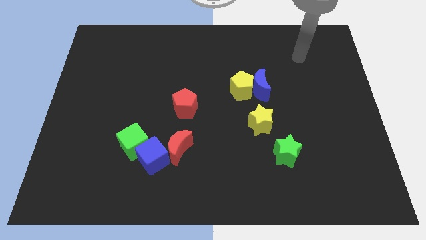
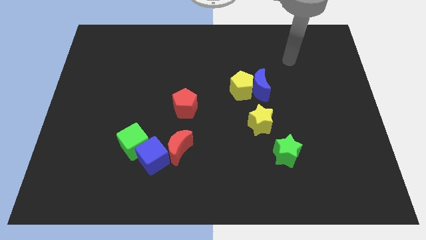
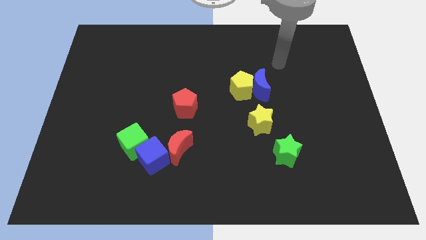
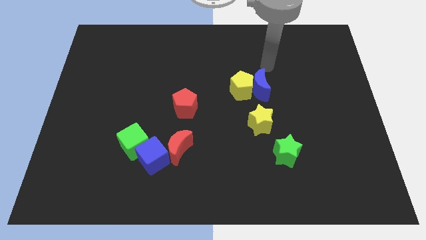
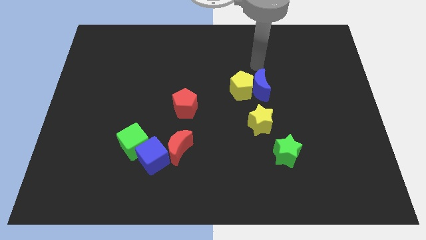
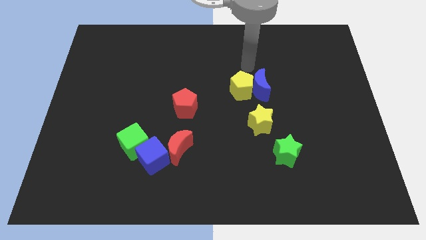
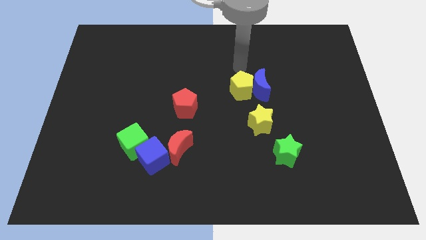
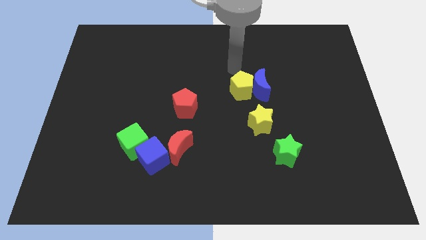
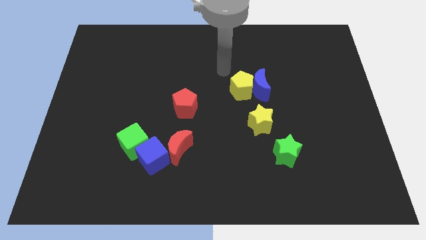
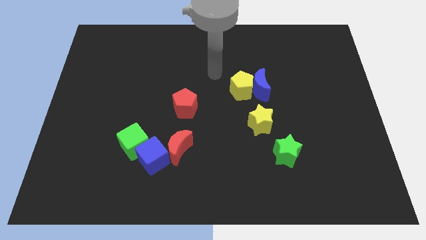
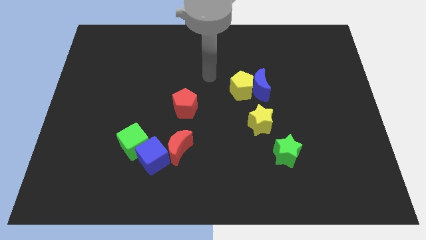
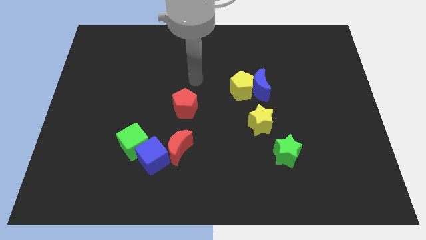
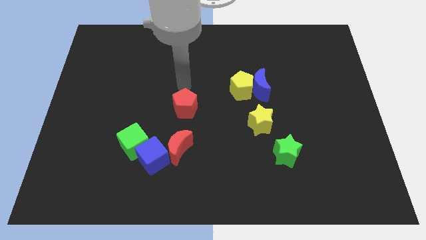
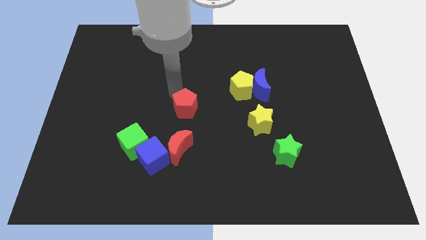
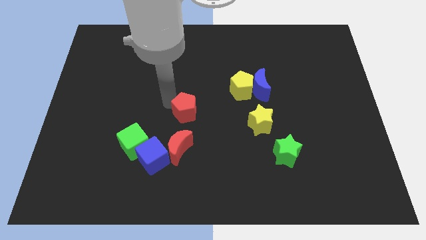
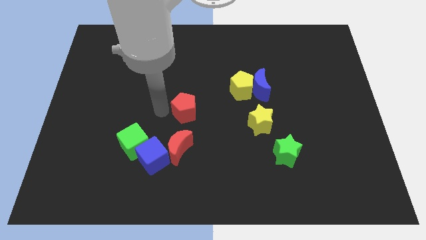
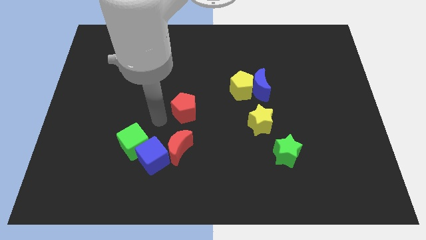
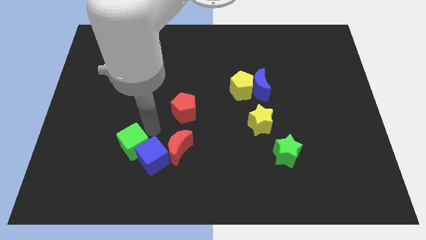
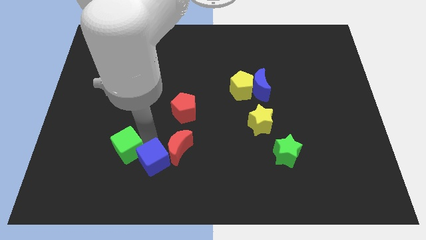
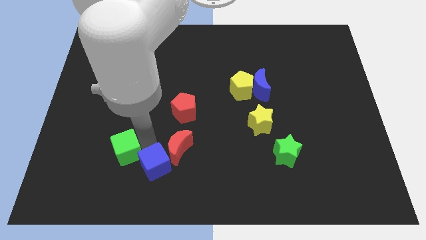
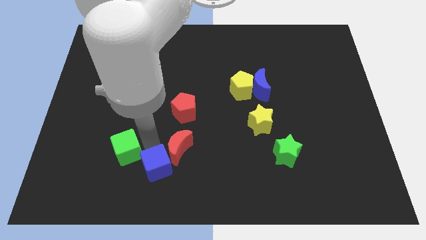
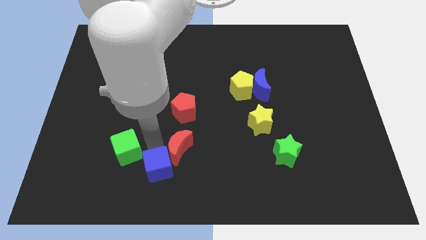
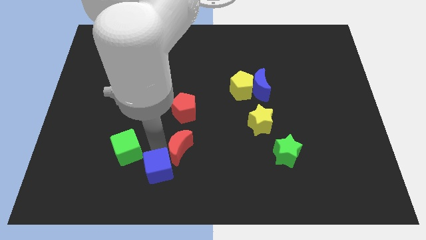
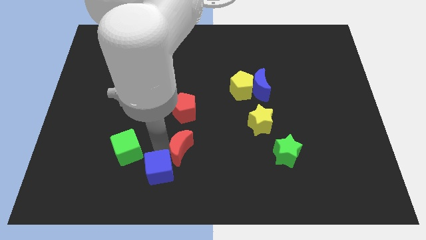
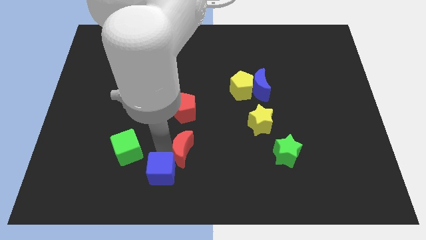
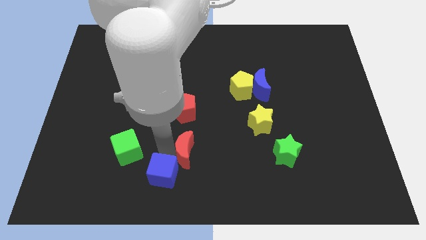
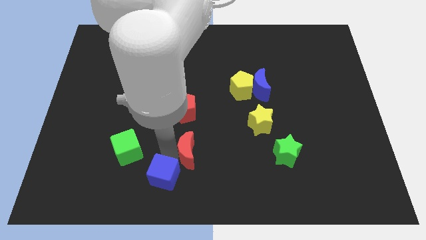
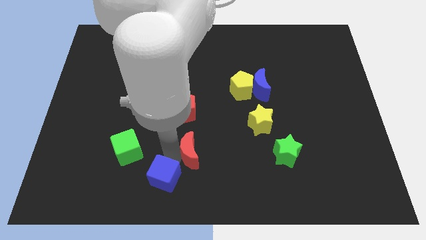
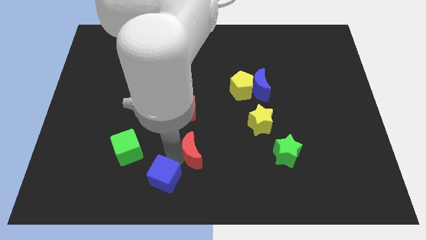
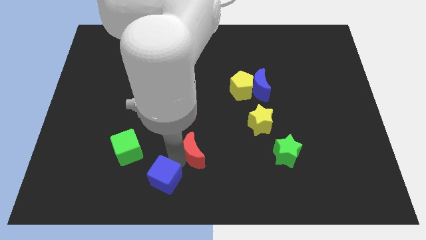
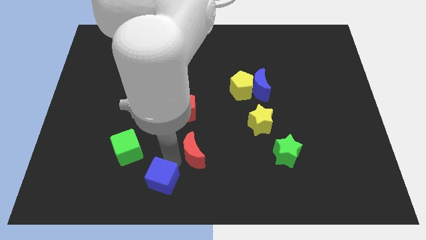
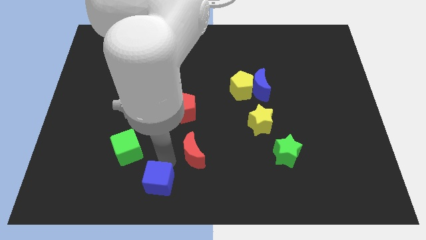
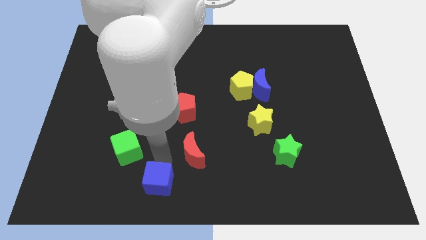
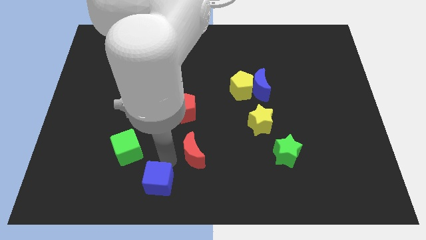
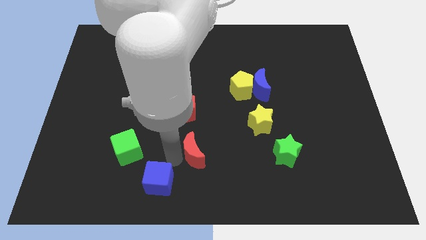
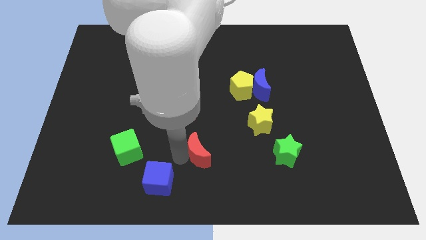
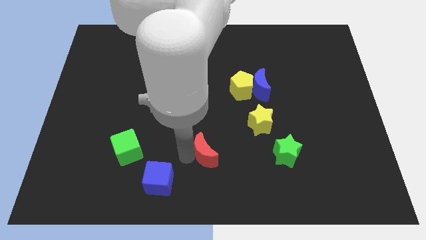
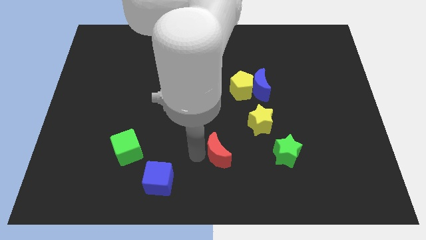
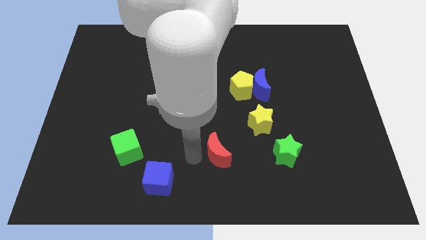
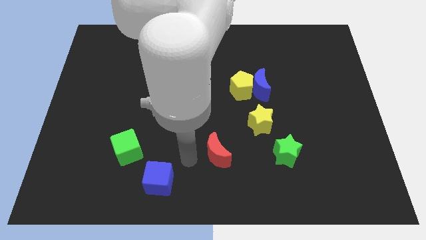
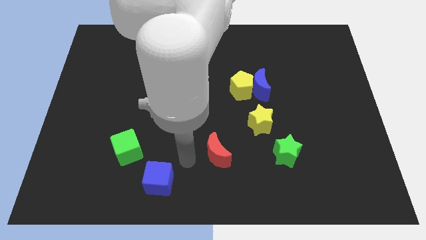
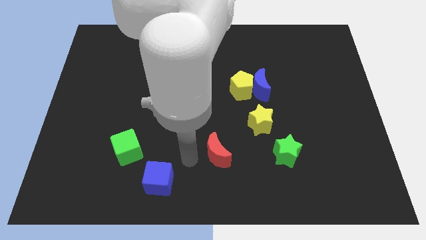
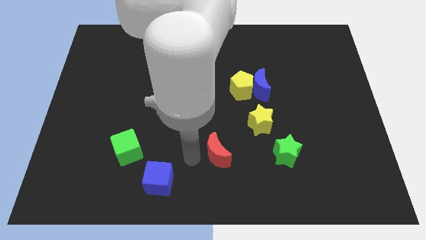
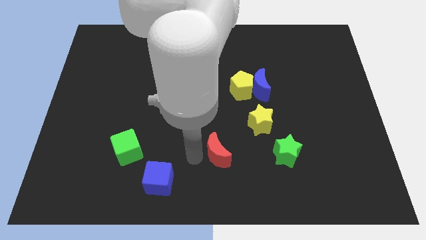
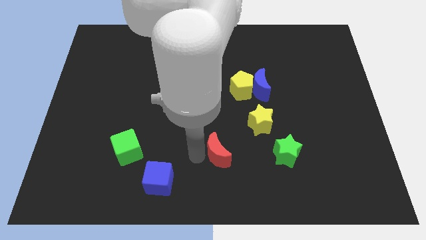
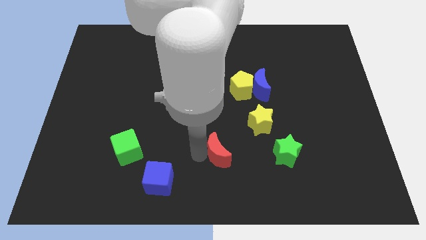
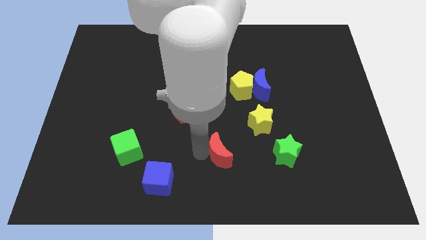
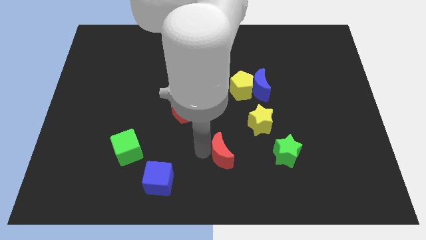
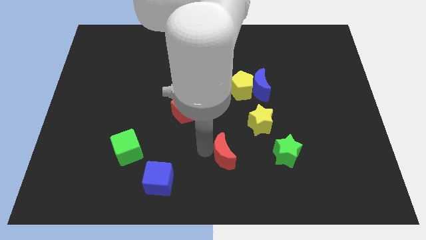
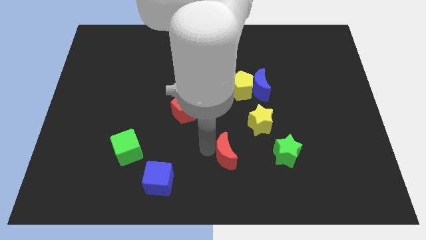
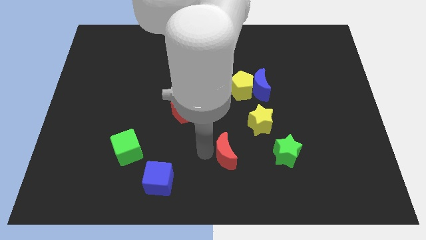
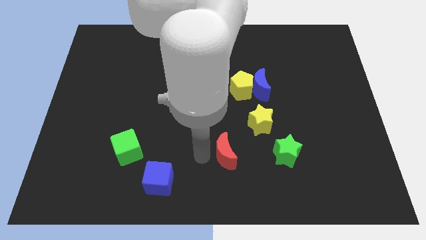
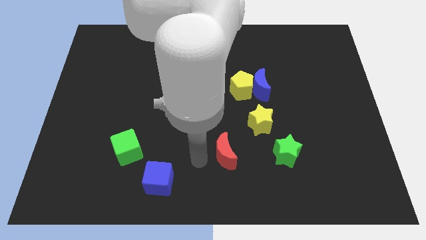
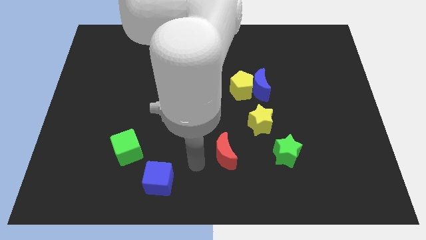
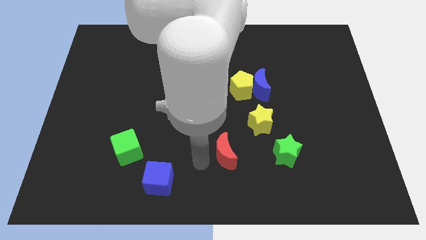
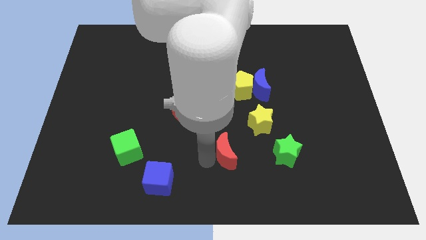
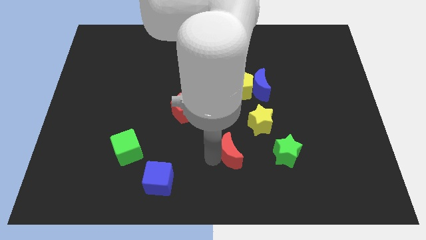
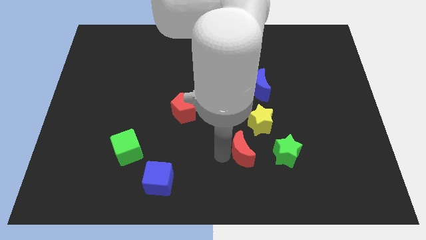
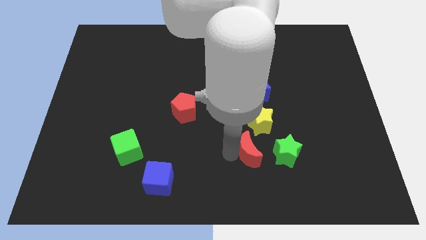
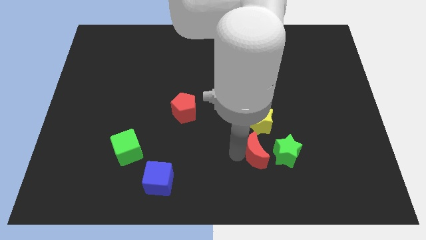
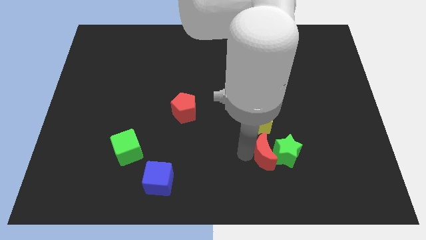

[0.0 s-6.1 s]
put the red moon towards the green star

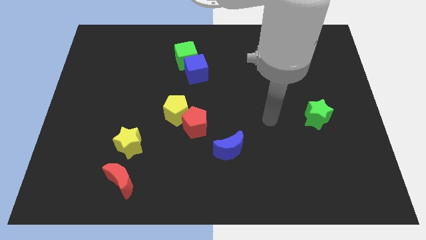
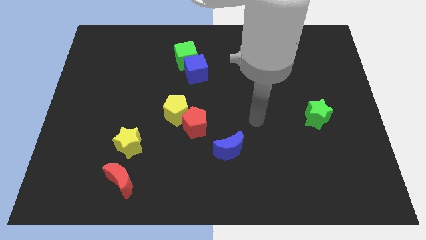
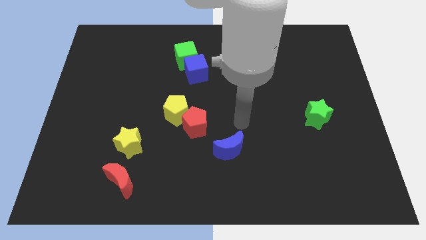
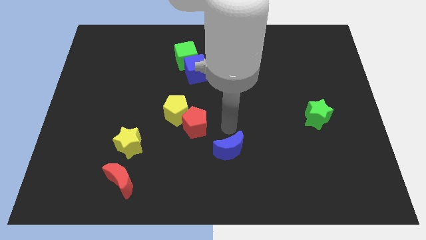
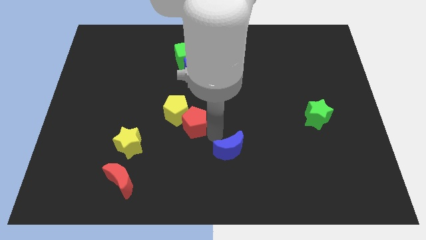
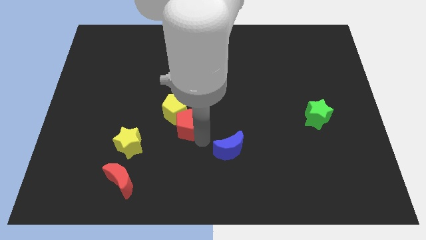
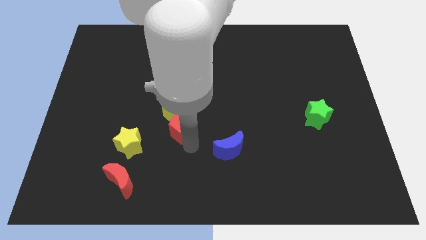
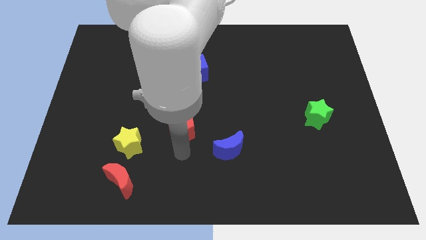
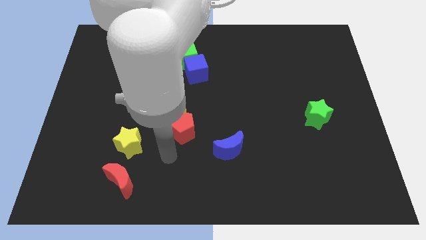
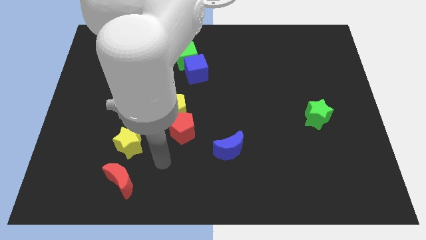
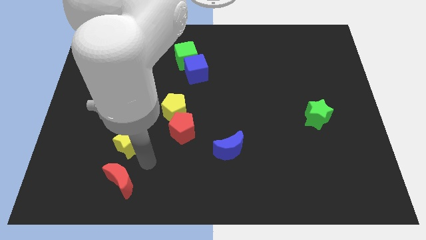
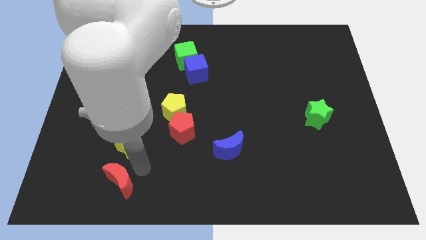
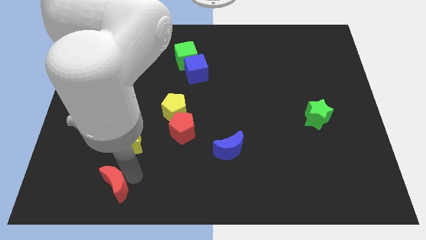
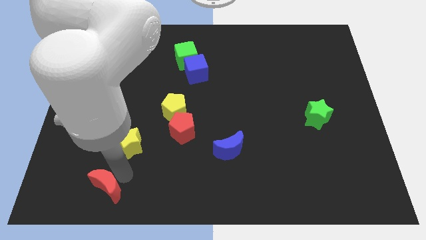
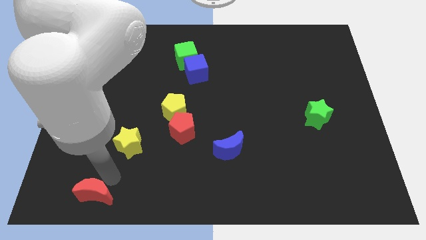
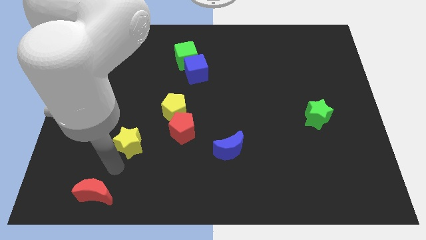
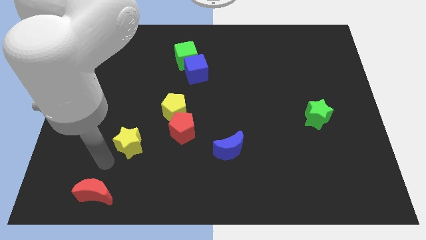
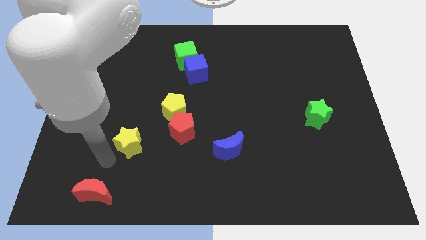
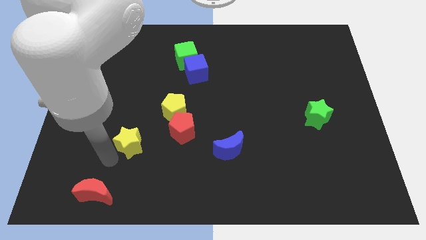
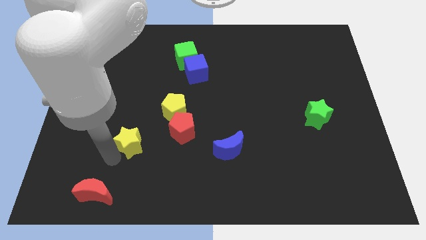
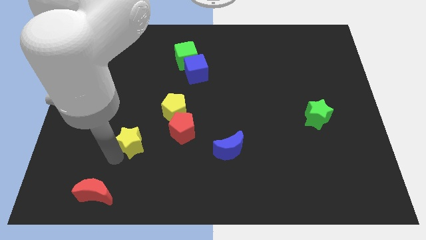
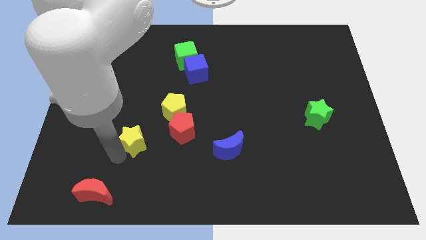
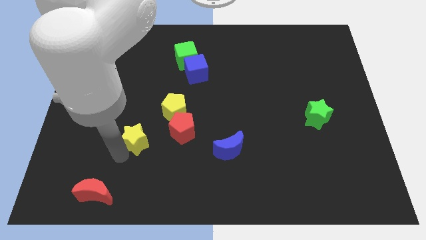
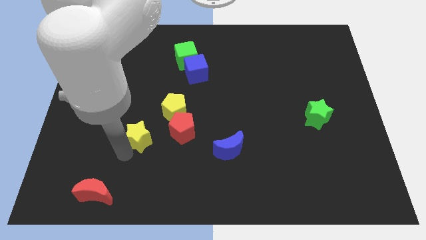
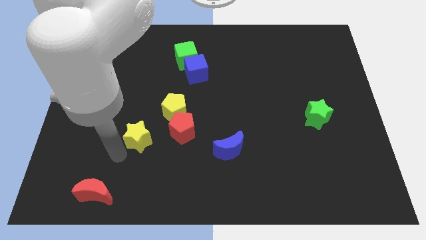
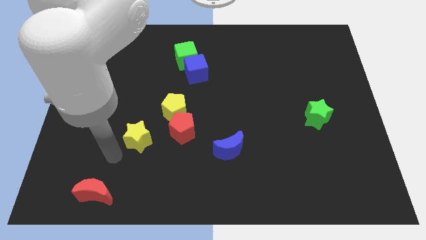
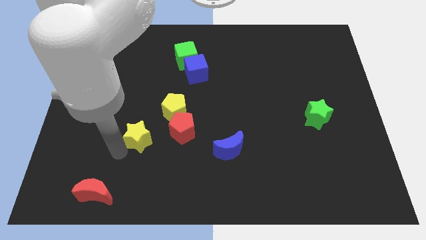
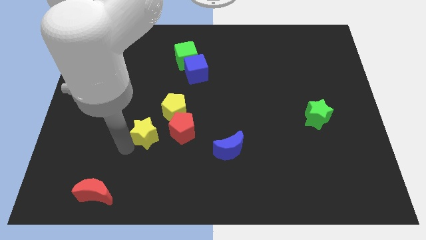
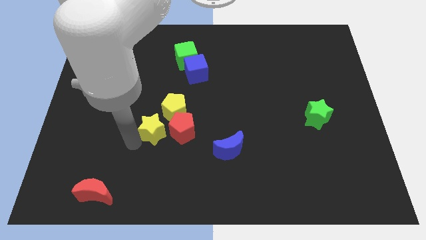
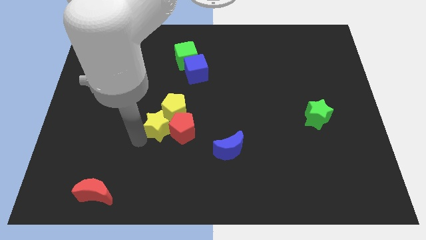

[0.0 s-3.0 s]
put the yellow star next to the yellow pentagon
